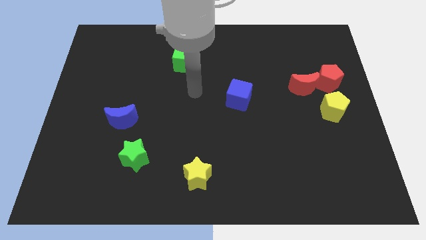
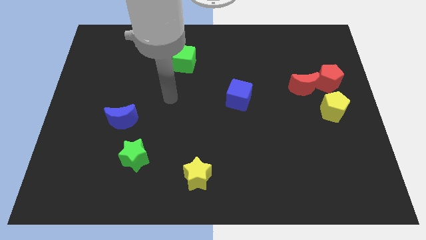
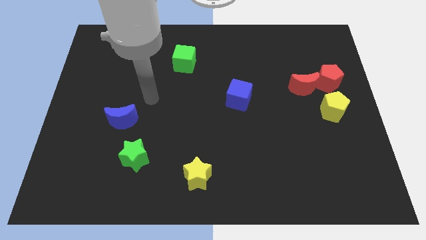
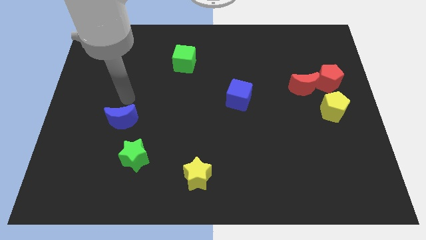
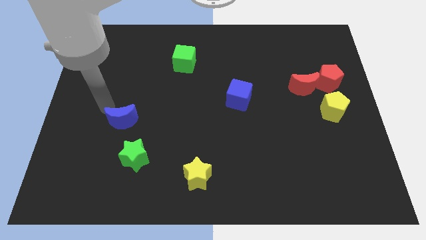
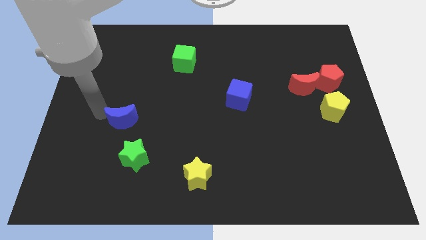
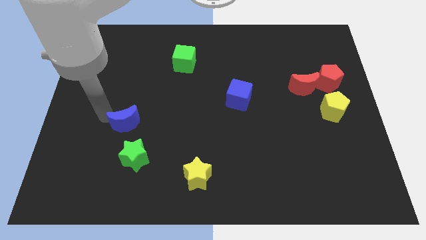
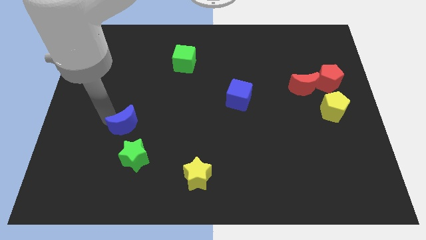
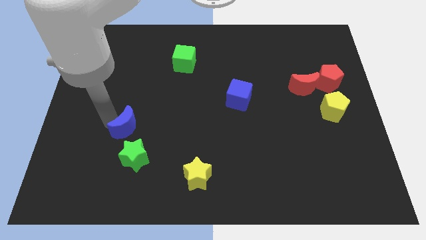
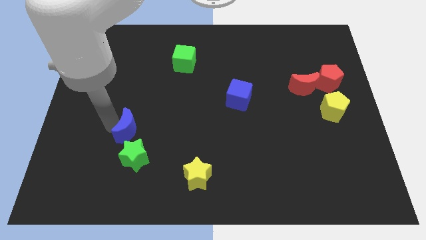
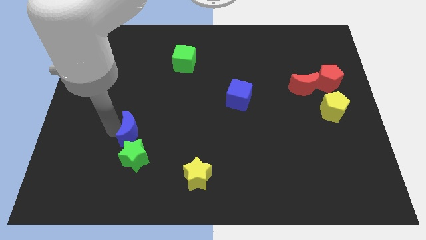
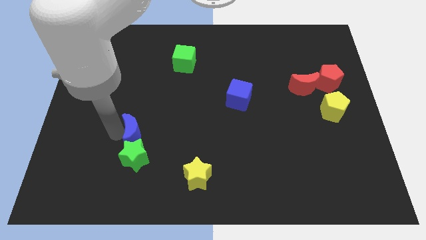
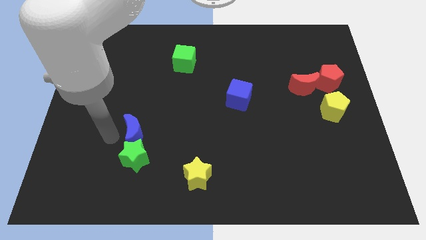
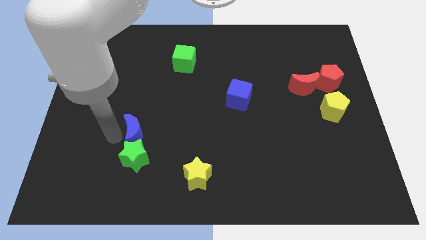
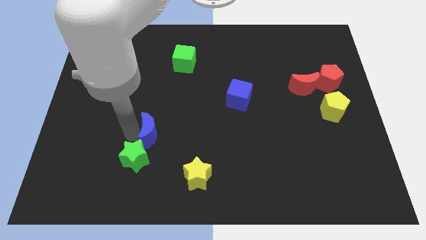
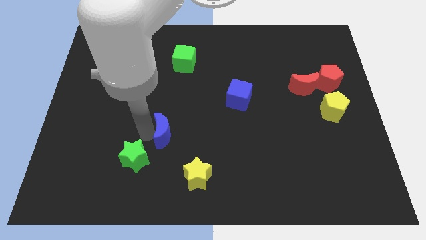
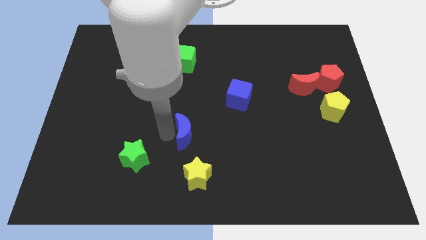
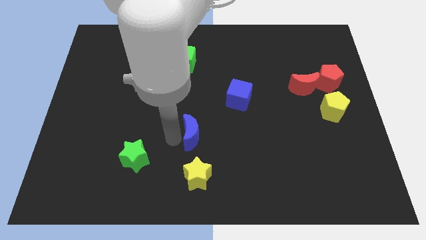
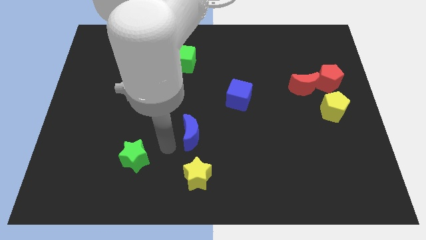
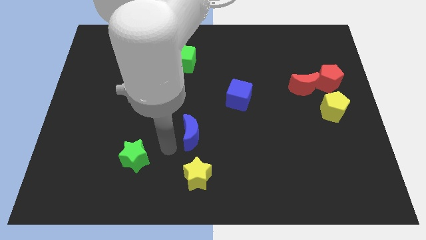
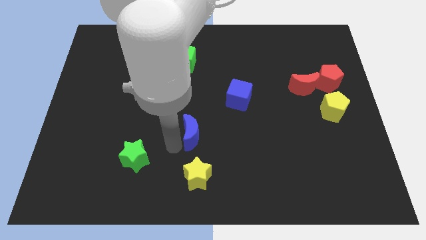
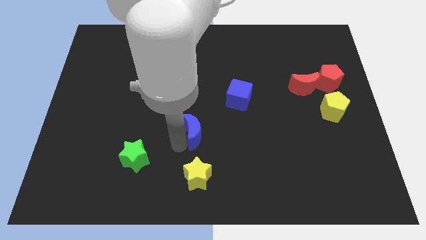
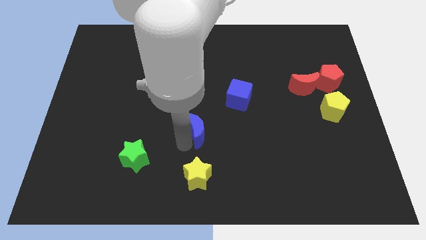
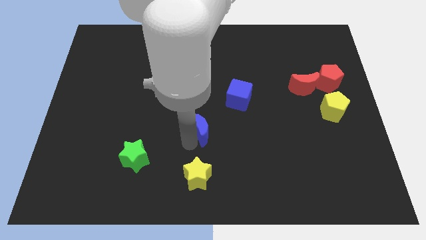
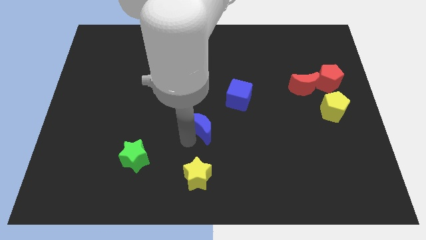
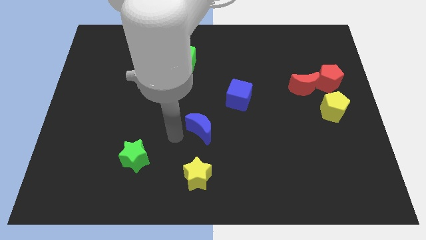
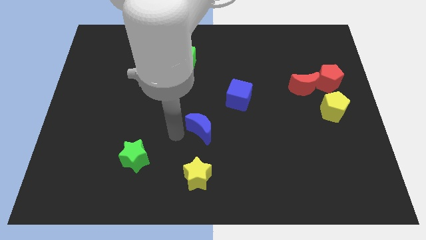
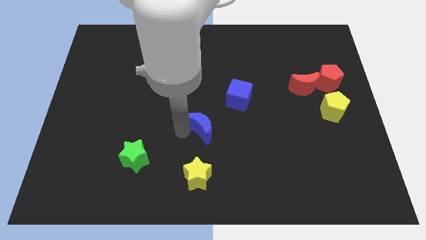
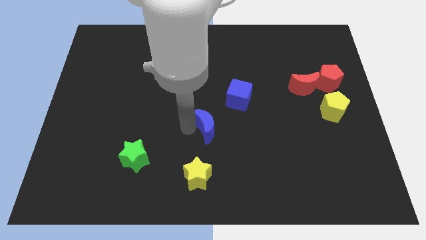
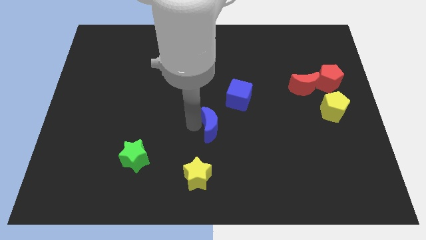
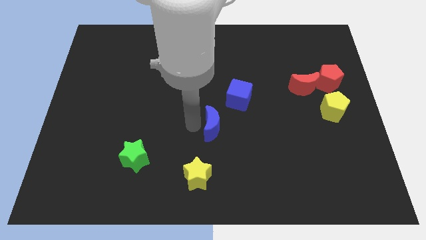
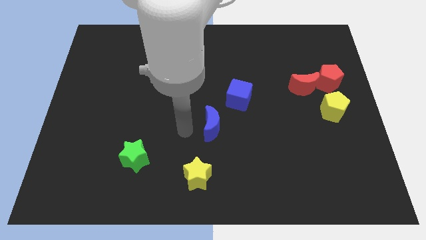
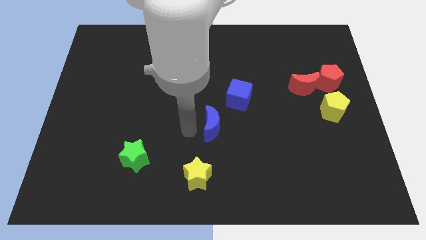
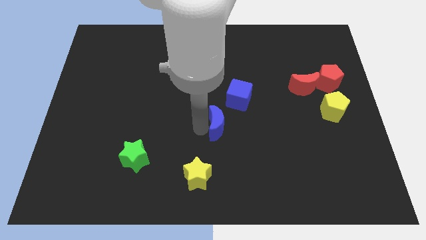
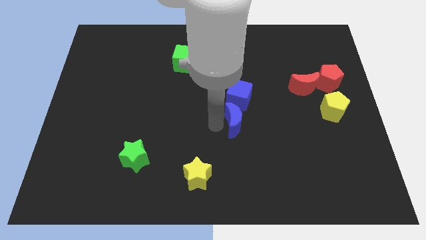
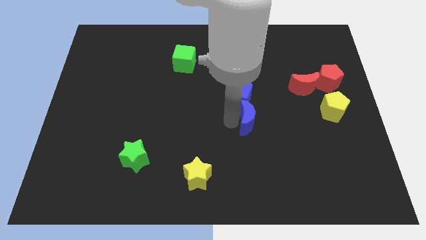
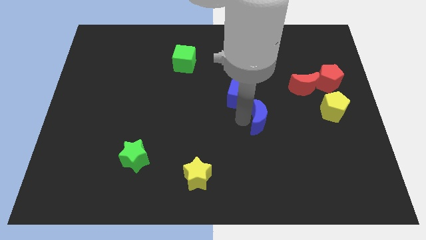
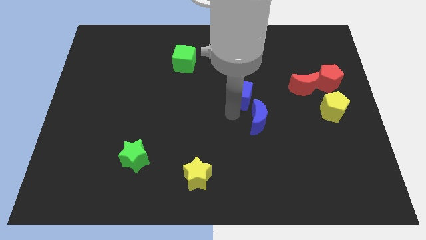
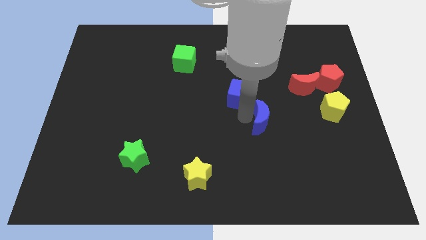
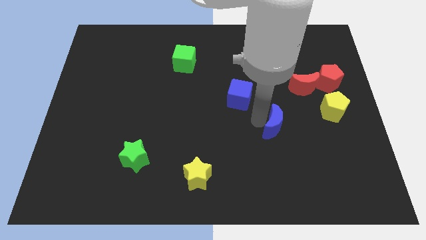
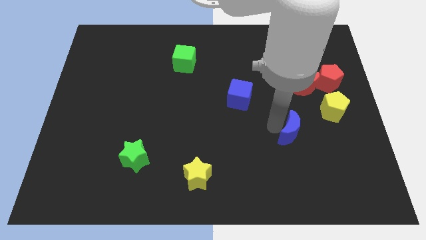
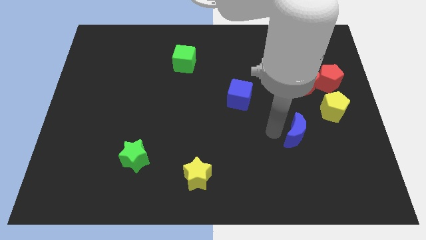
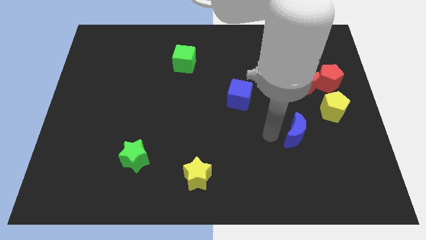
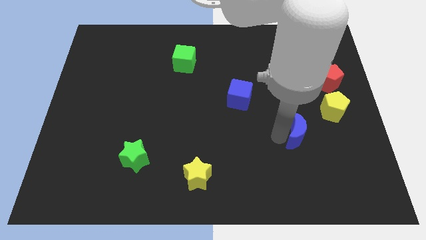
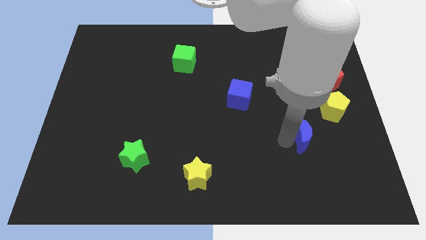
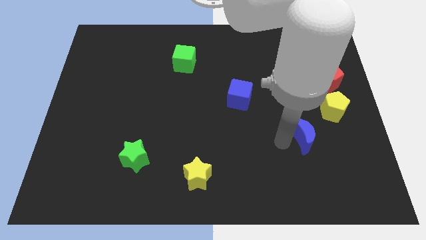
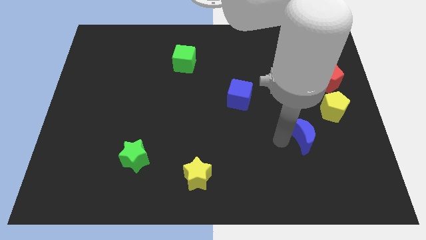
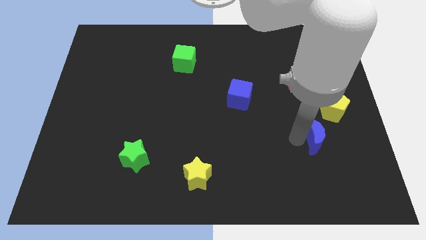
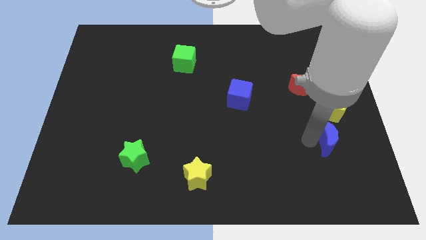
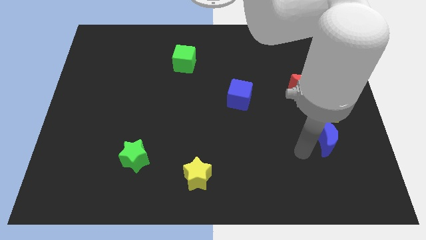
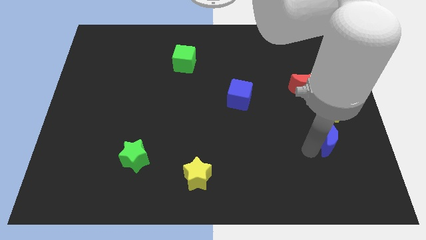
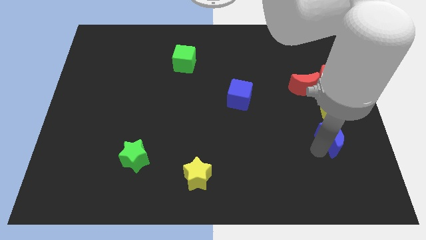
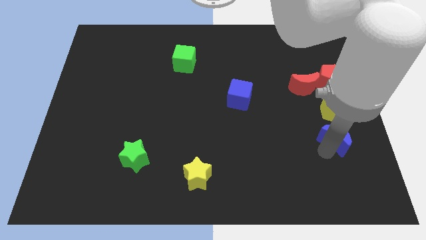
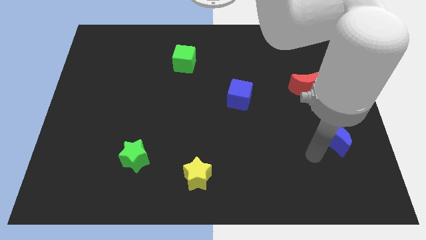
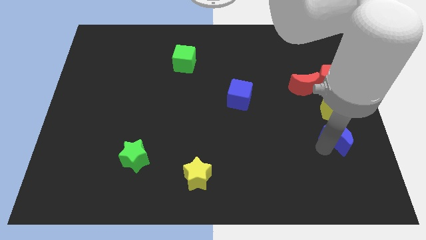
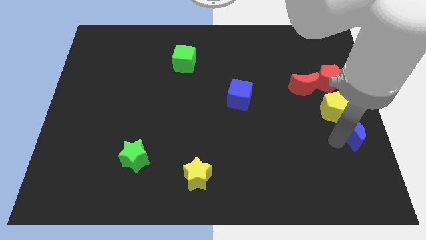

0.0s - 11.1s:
move the blue moon to the center right

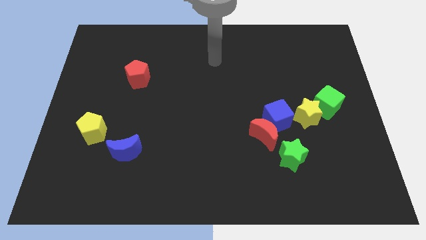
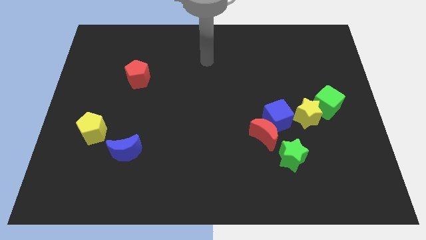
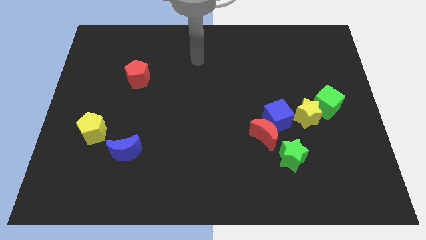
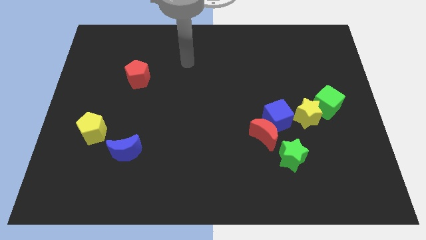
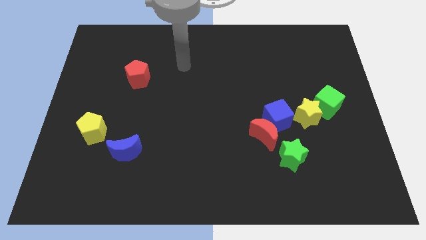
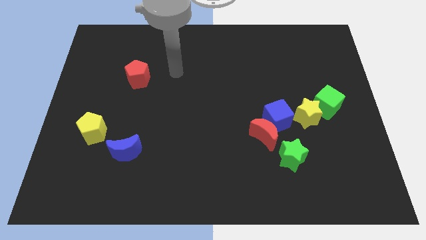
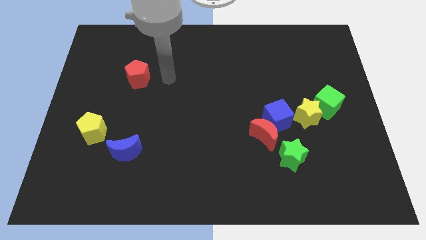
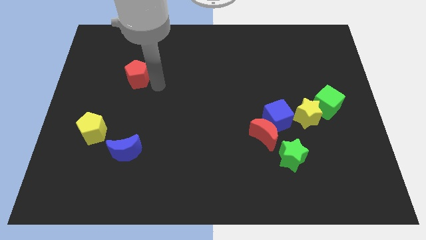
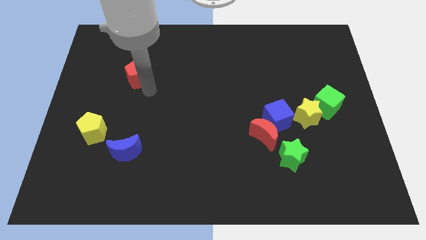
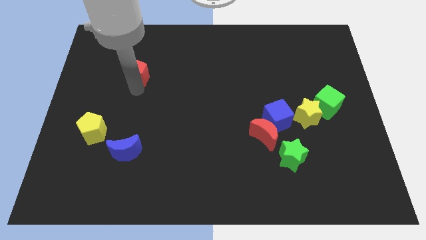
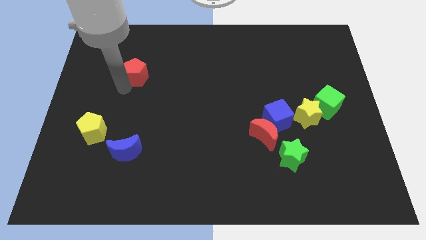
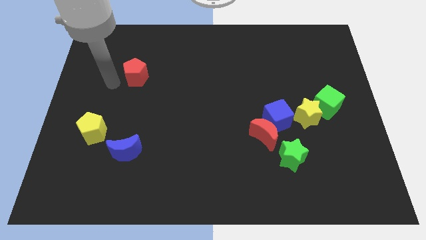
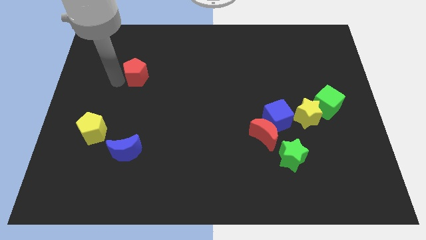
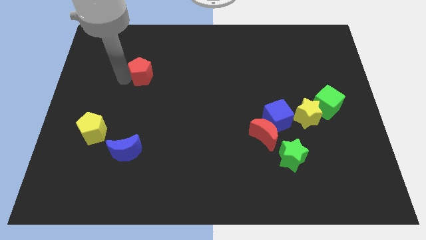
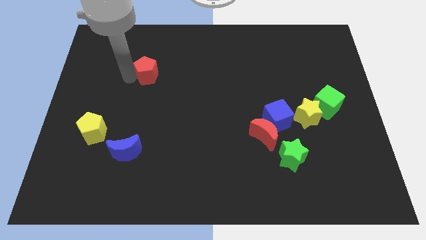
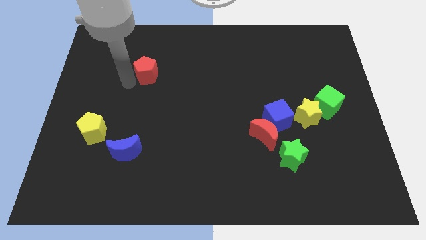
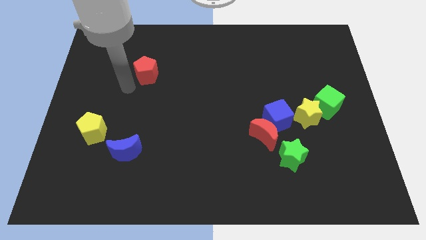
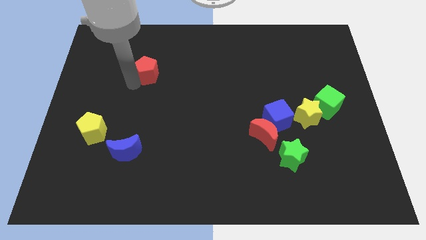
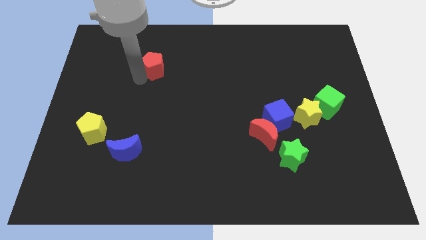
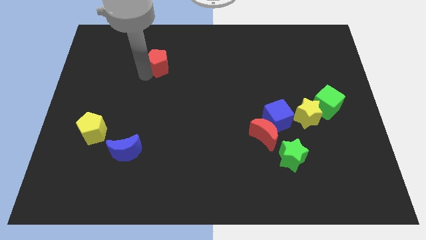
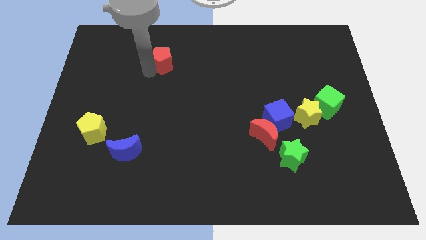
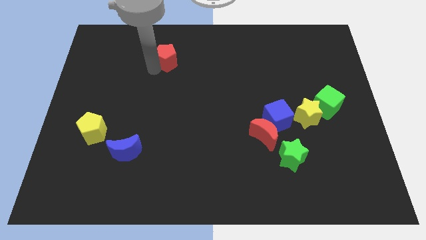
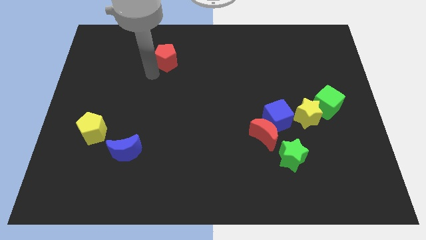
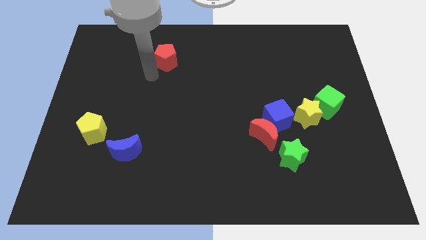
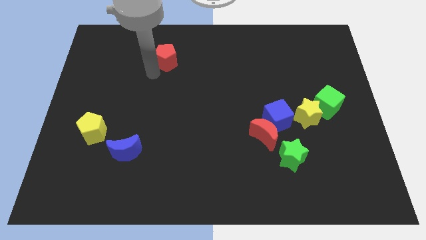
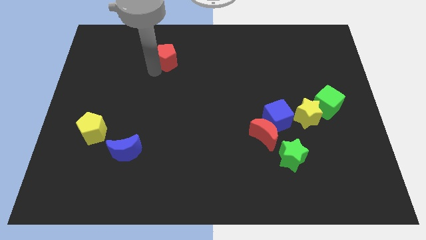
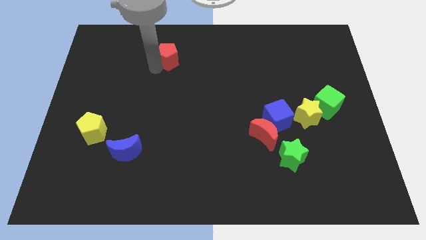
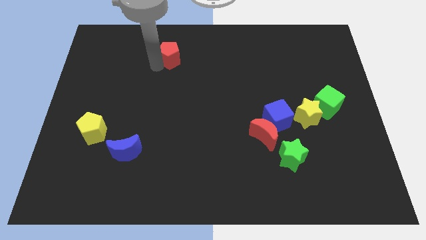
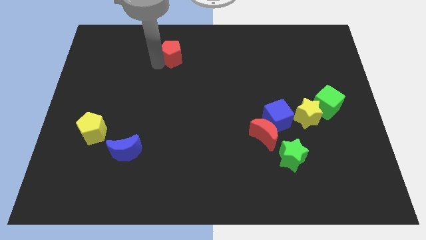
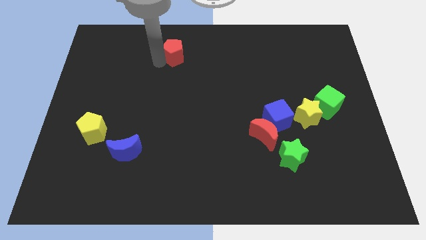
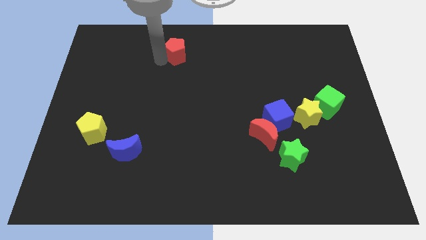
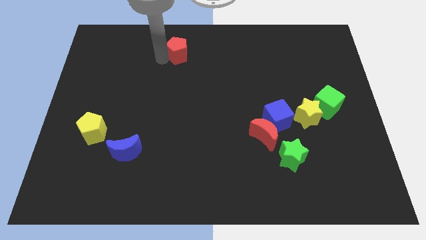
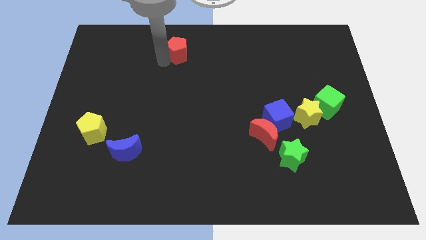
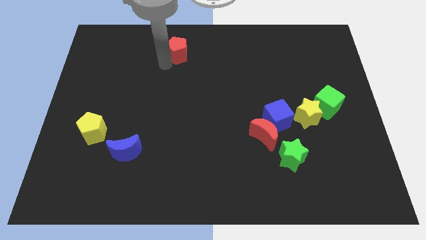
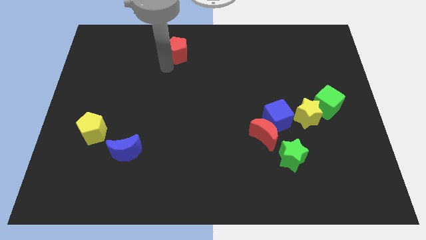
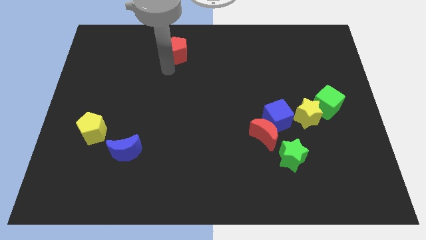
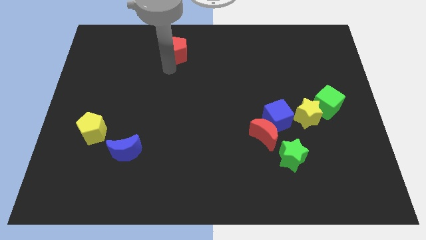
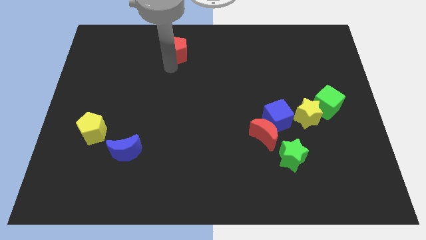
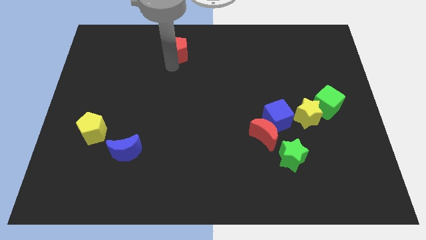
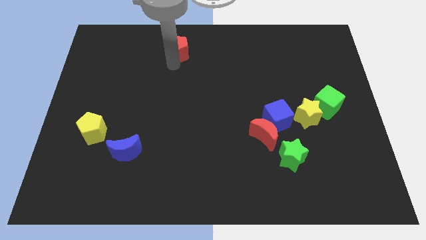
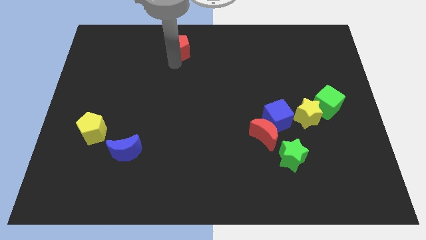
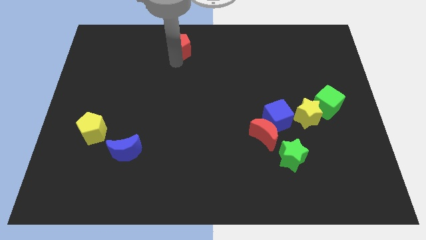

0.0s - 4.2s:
push the red pentagon to the top side
